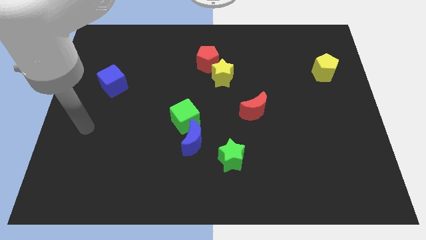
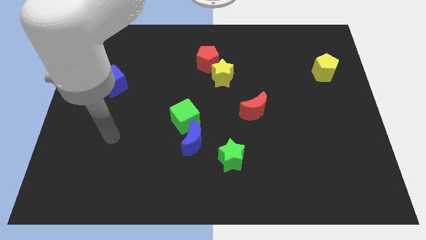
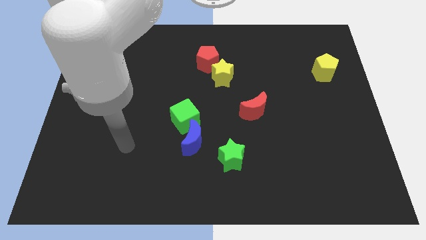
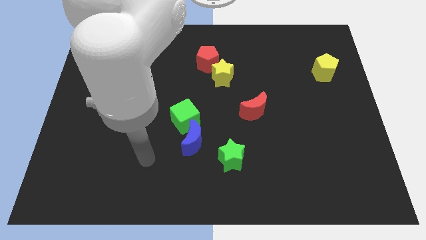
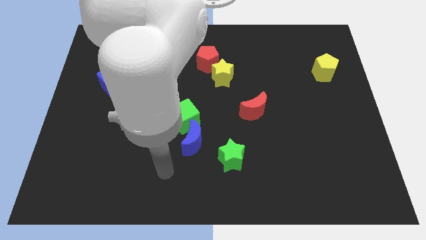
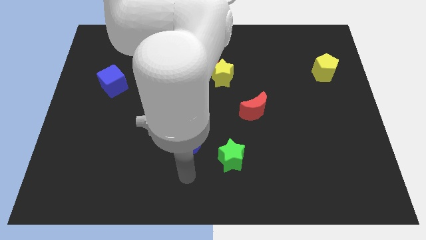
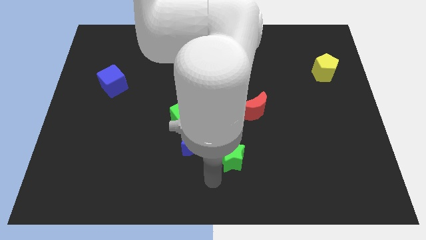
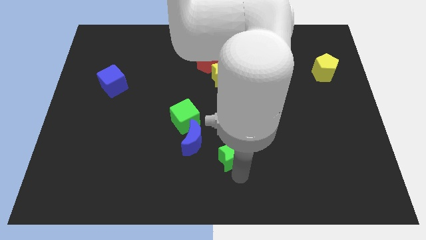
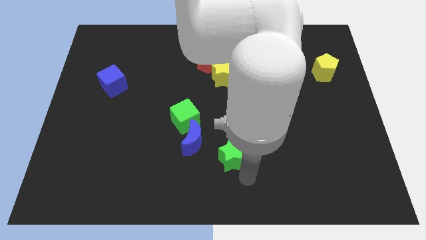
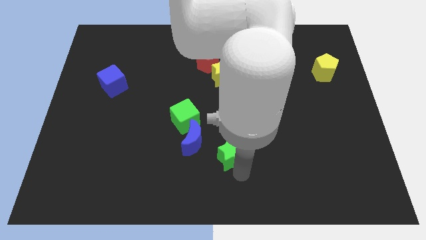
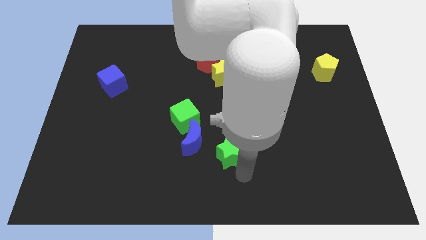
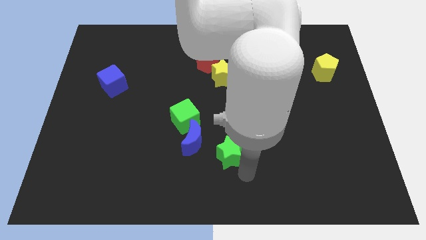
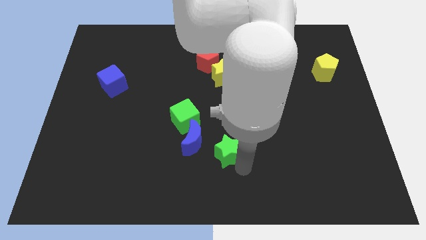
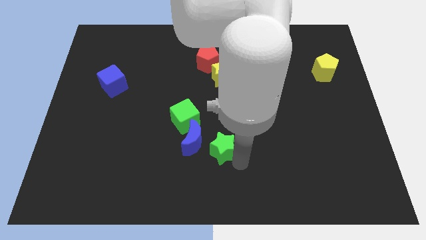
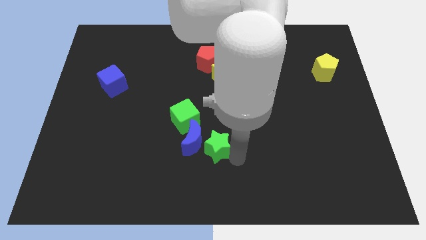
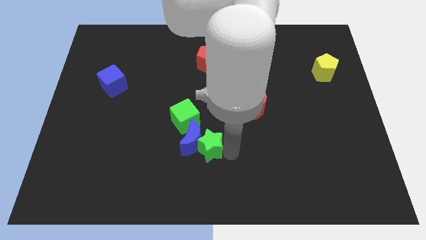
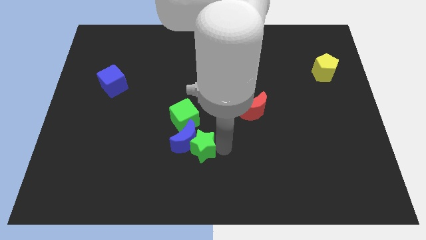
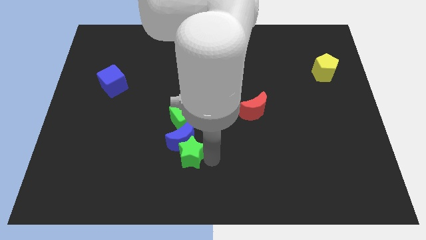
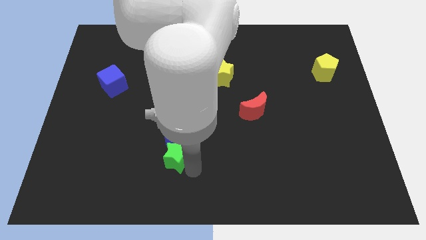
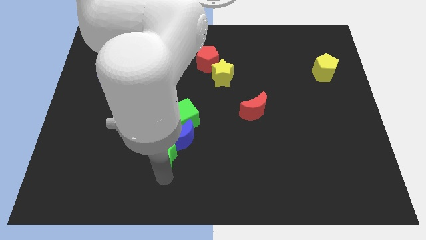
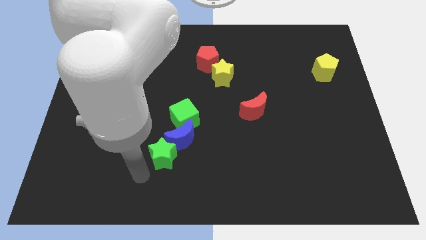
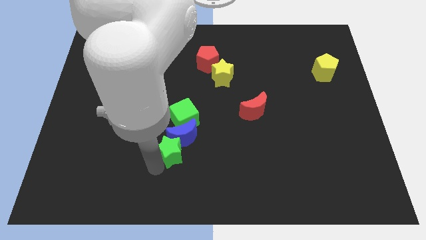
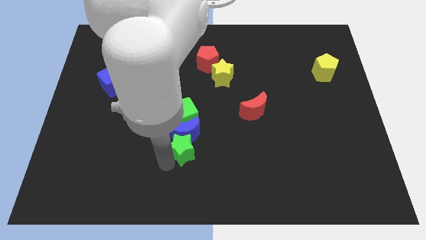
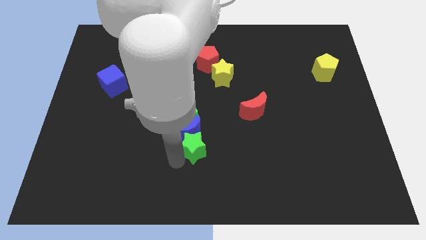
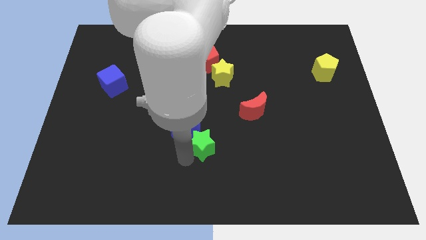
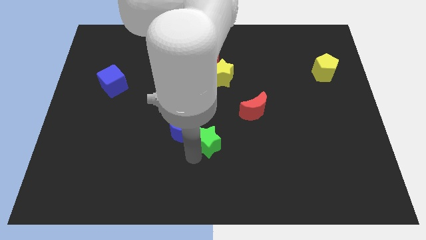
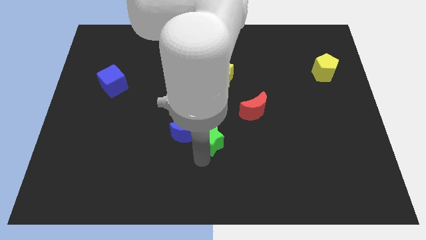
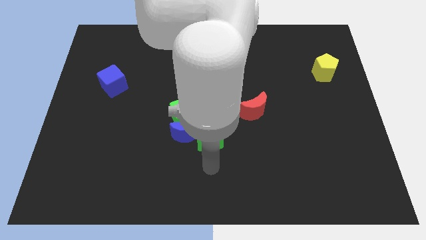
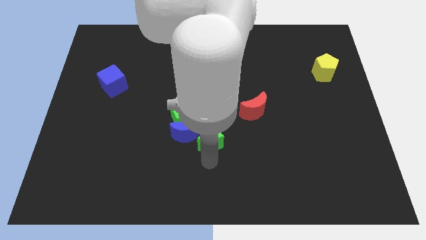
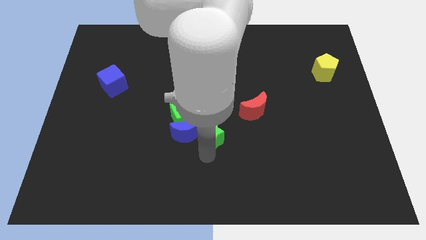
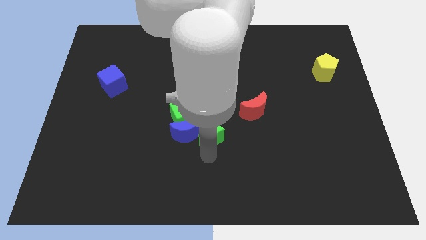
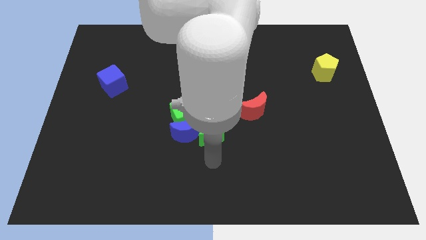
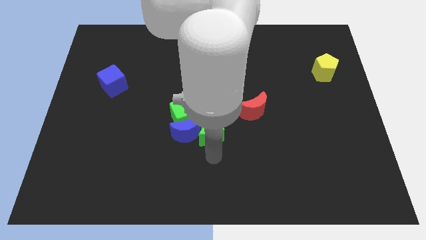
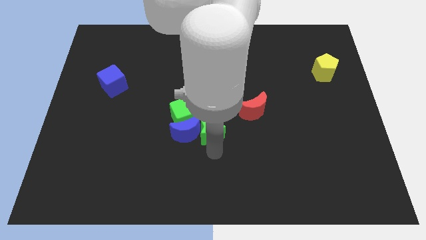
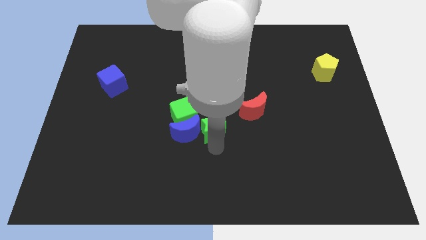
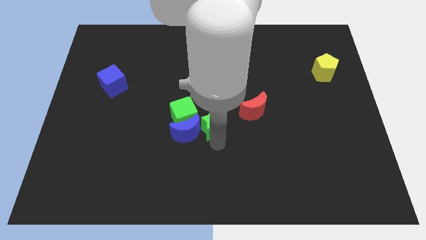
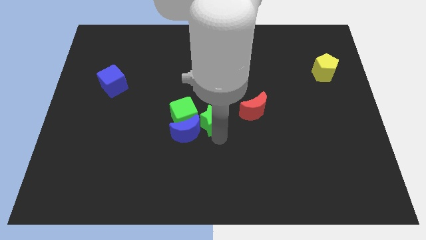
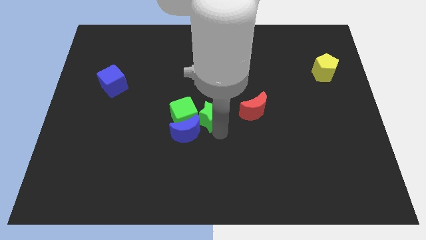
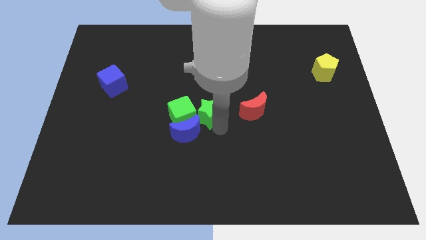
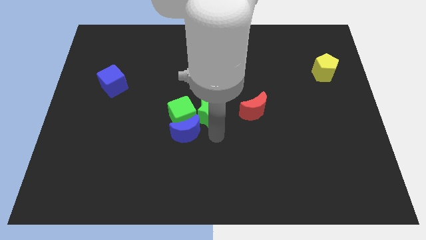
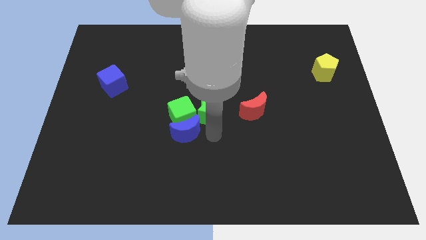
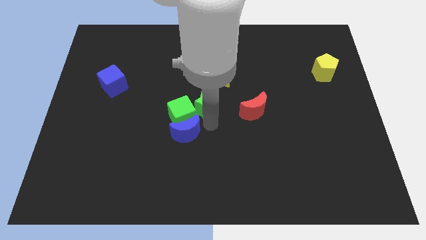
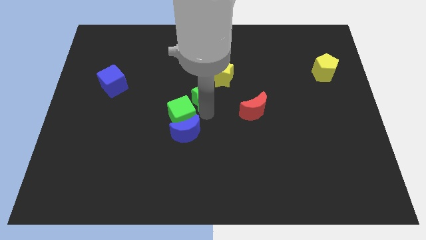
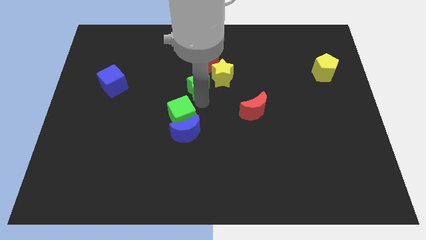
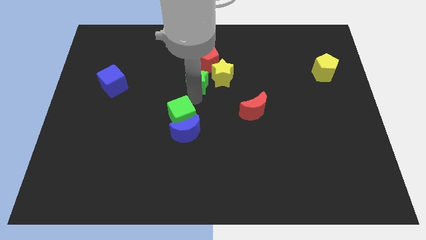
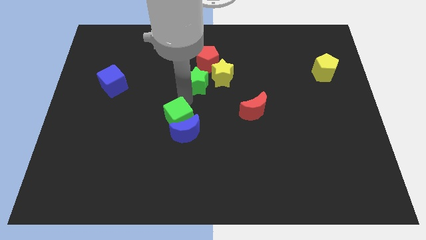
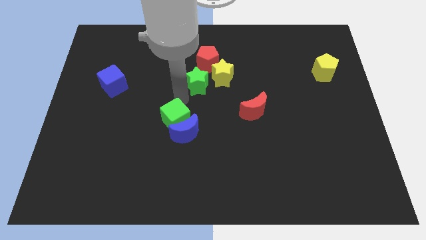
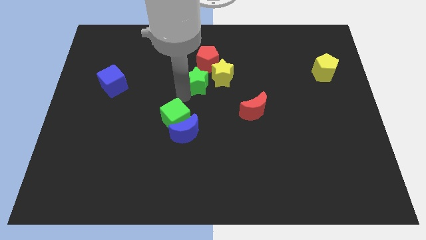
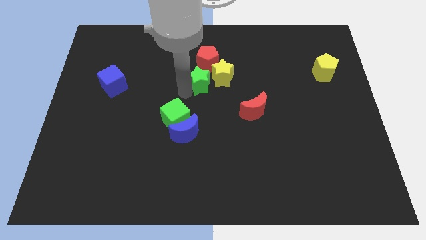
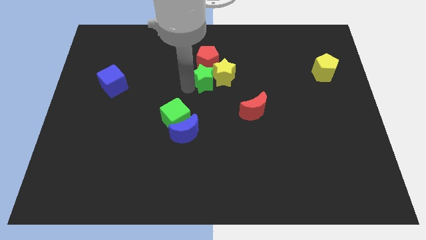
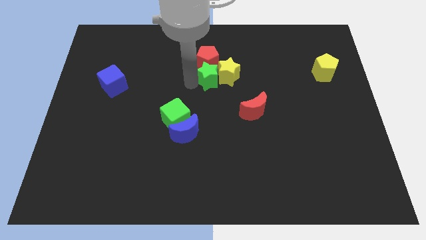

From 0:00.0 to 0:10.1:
move the green star close to the red pentagon
